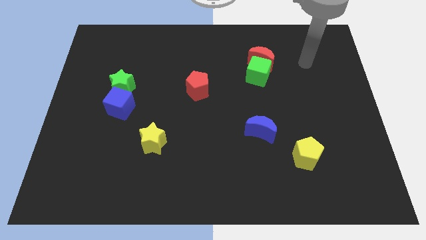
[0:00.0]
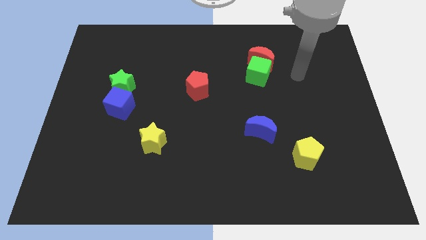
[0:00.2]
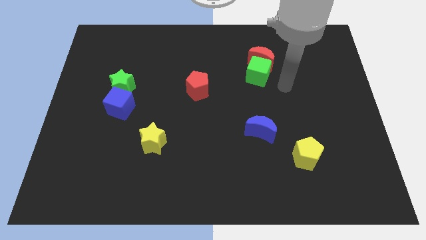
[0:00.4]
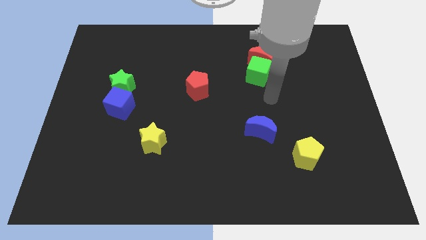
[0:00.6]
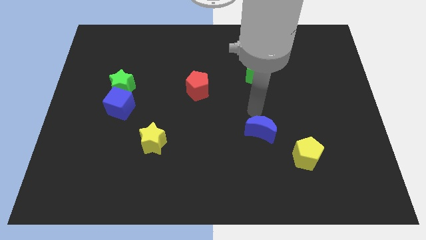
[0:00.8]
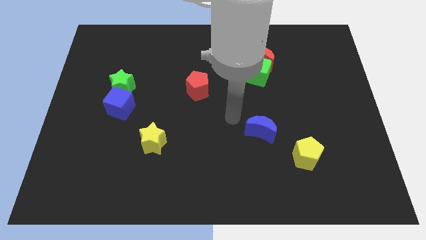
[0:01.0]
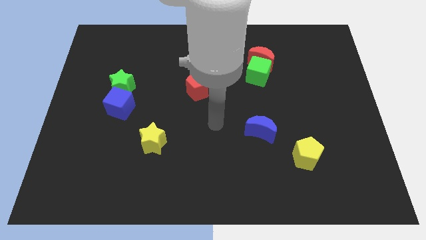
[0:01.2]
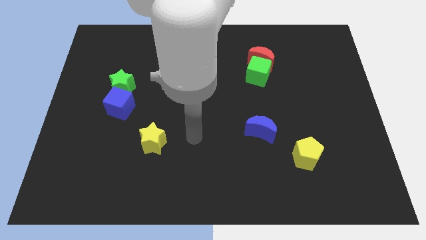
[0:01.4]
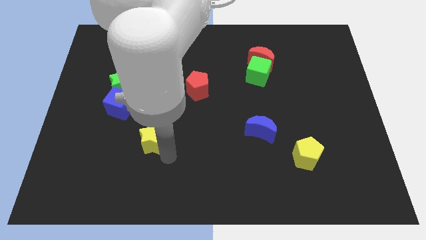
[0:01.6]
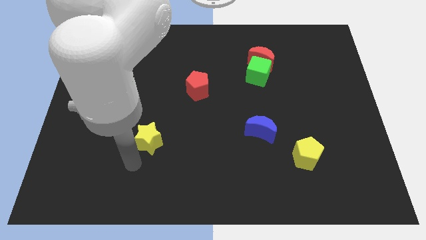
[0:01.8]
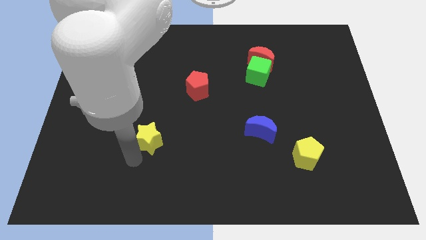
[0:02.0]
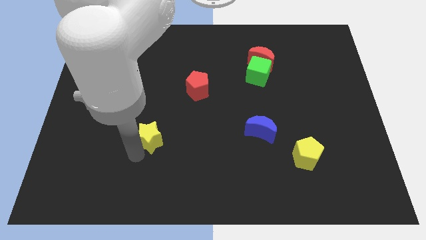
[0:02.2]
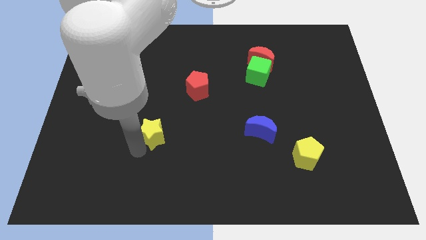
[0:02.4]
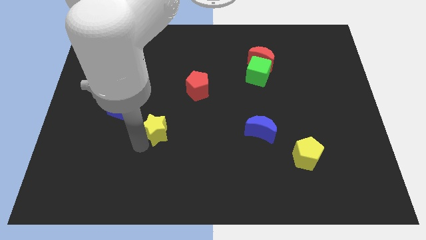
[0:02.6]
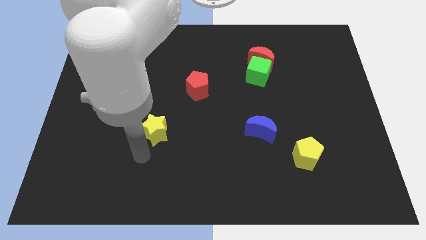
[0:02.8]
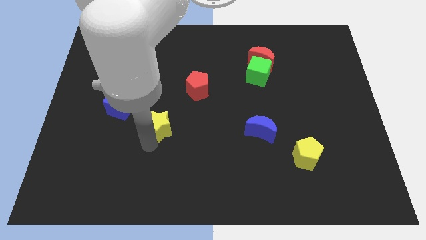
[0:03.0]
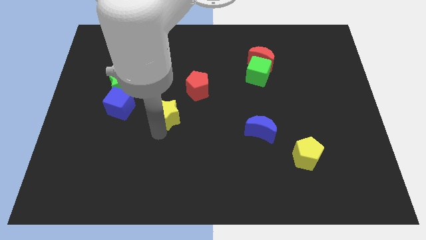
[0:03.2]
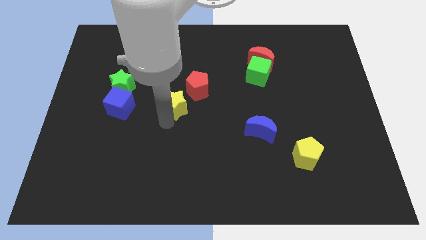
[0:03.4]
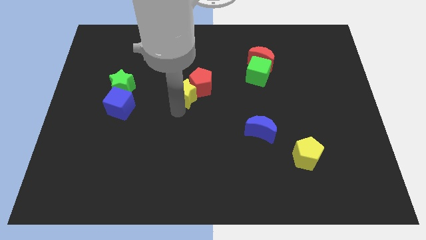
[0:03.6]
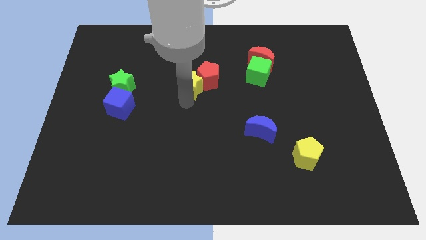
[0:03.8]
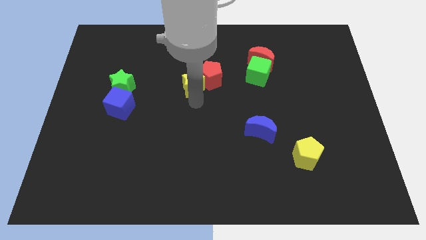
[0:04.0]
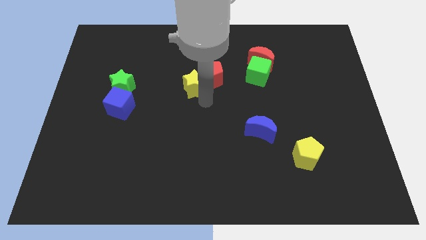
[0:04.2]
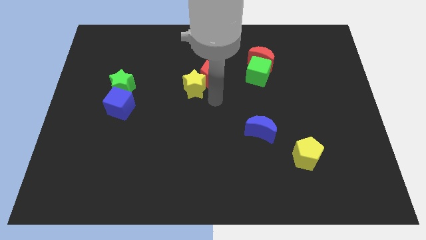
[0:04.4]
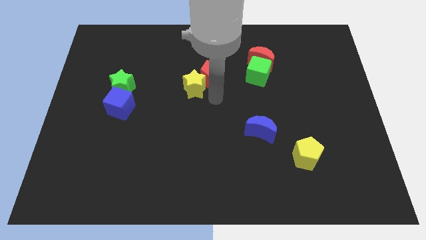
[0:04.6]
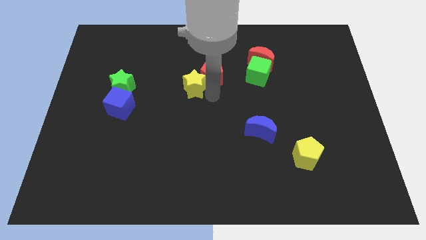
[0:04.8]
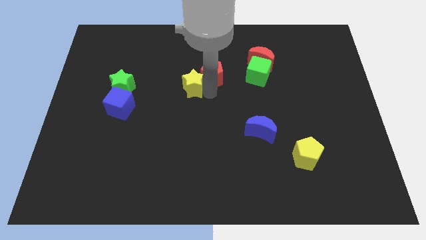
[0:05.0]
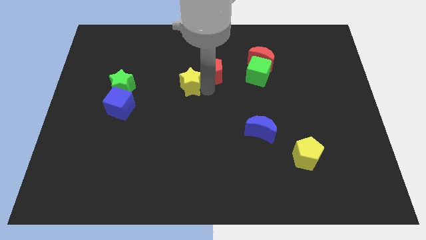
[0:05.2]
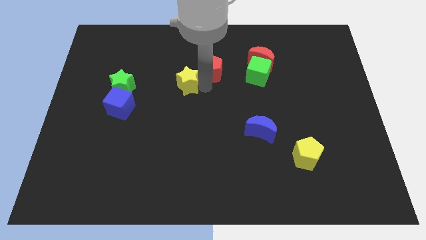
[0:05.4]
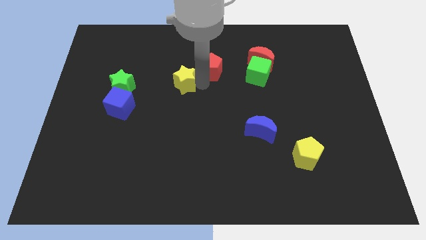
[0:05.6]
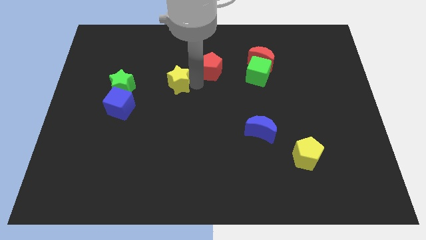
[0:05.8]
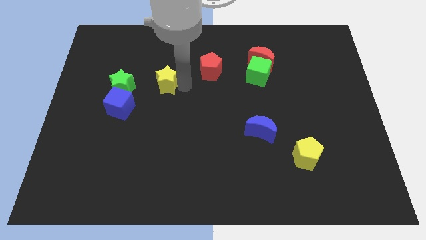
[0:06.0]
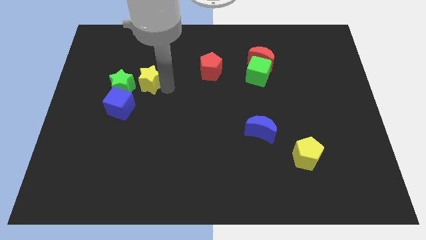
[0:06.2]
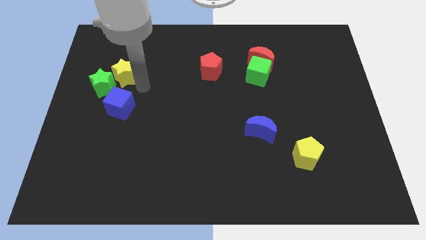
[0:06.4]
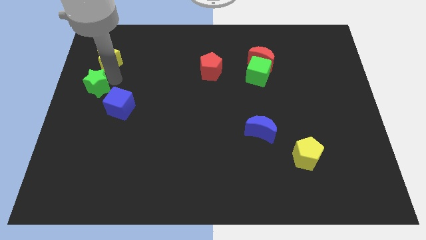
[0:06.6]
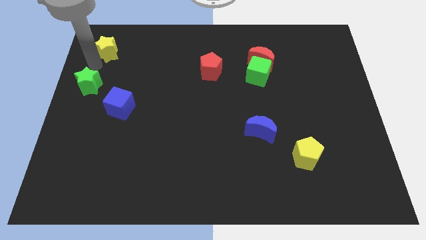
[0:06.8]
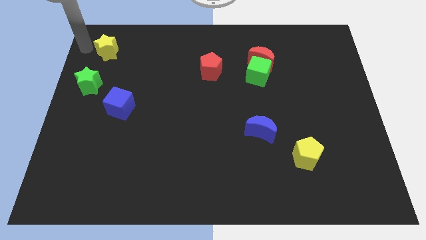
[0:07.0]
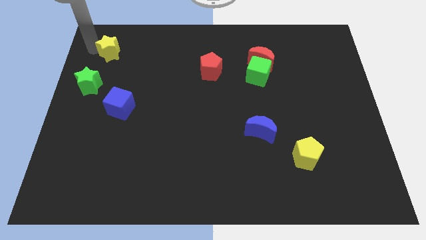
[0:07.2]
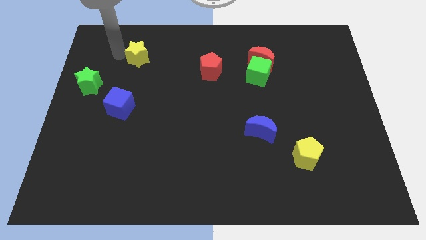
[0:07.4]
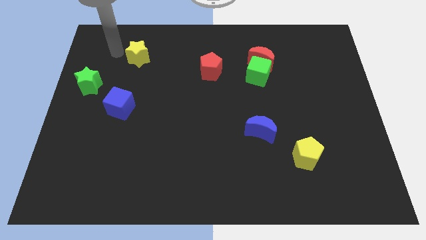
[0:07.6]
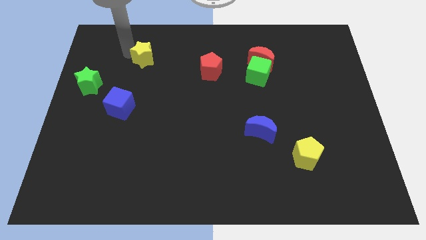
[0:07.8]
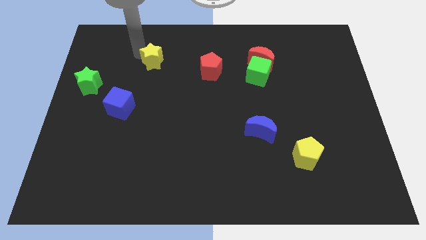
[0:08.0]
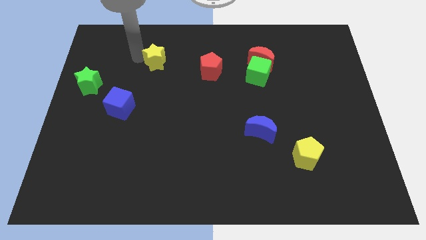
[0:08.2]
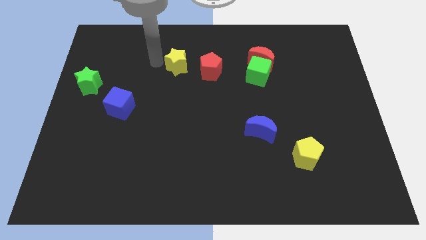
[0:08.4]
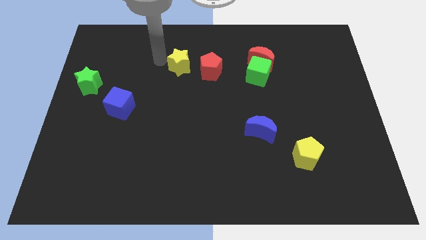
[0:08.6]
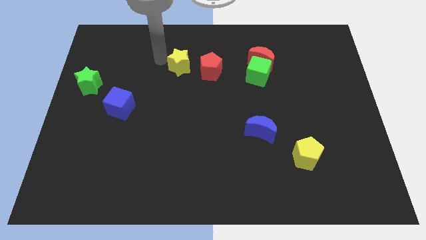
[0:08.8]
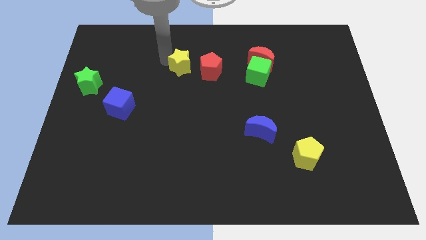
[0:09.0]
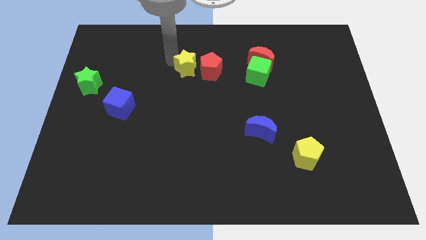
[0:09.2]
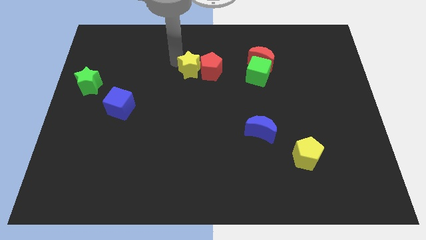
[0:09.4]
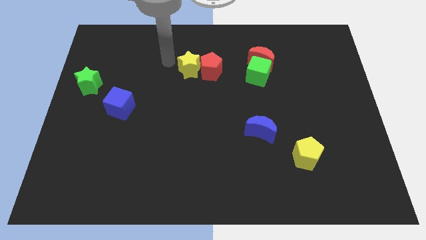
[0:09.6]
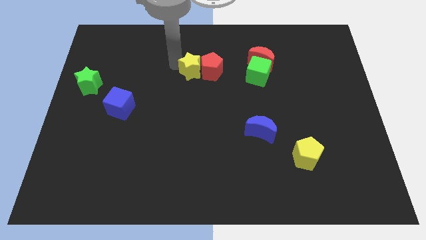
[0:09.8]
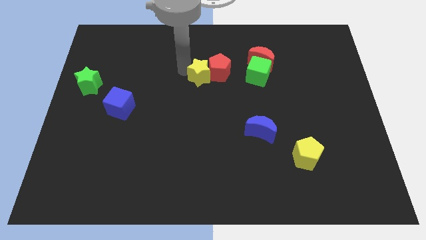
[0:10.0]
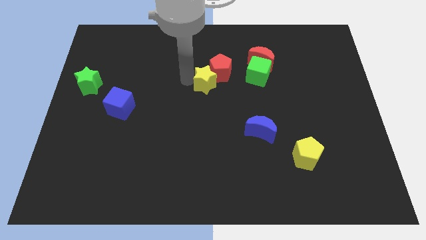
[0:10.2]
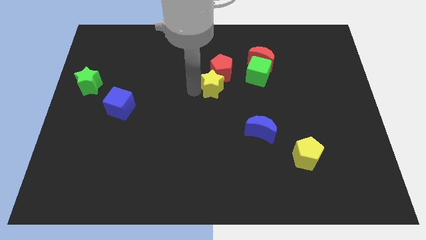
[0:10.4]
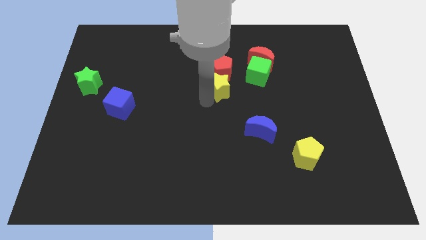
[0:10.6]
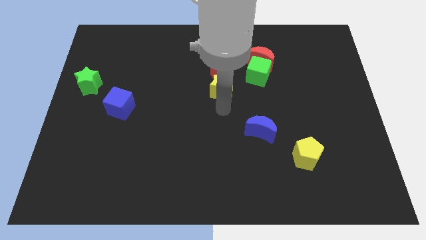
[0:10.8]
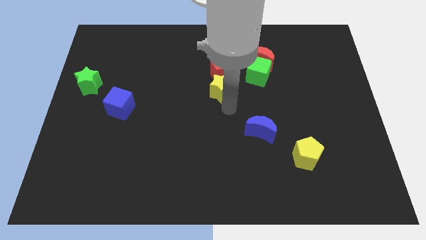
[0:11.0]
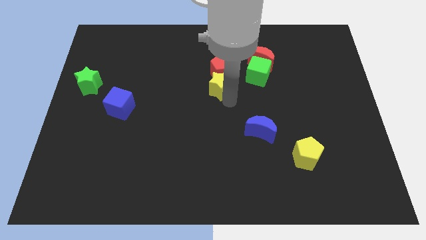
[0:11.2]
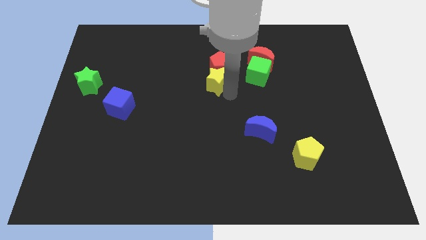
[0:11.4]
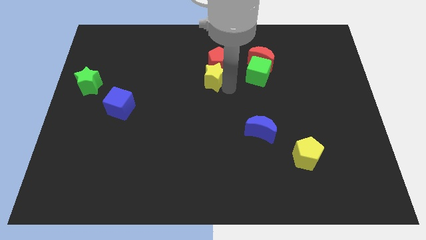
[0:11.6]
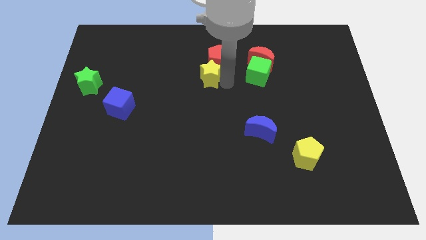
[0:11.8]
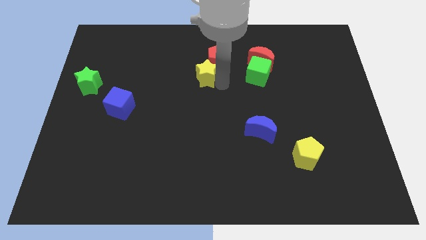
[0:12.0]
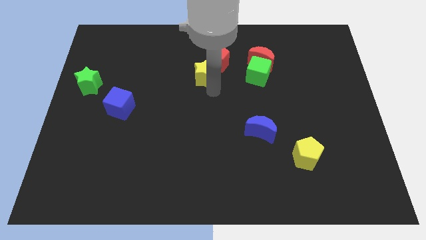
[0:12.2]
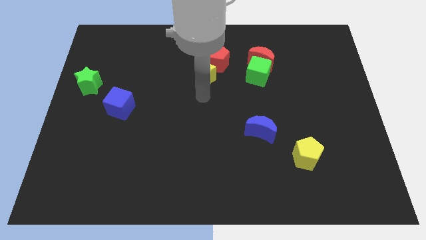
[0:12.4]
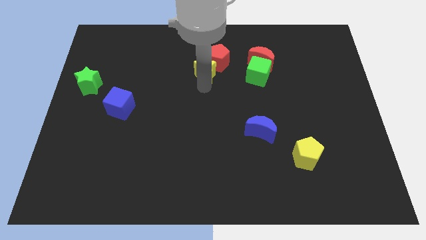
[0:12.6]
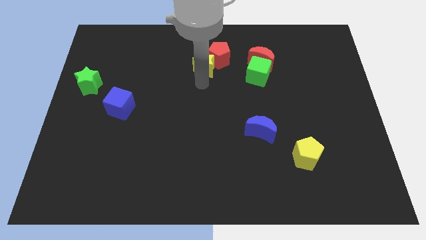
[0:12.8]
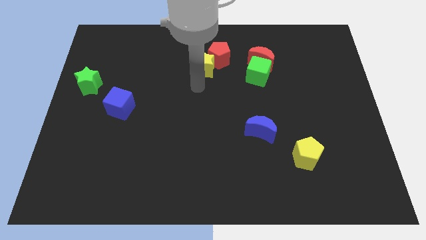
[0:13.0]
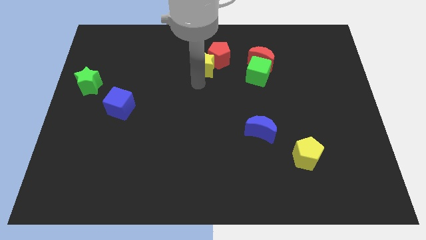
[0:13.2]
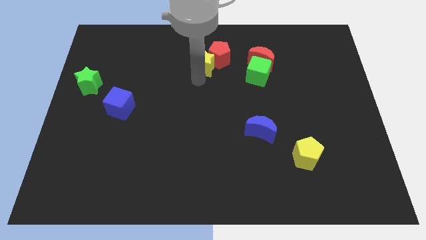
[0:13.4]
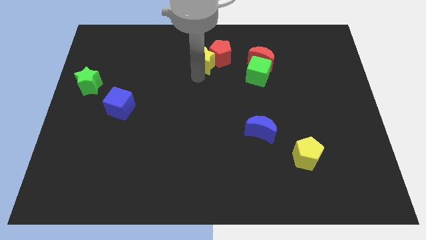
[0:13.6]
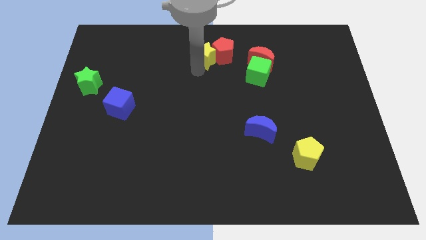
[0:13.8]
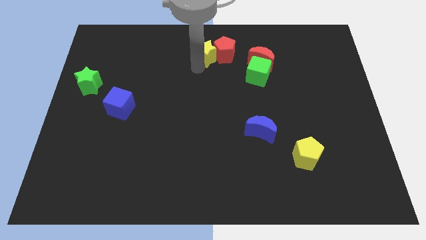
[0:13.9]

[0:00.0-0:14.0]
push the yellow star to the top side

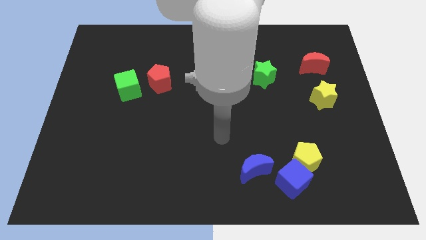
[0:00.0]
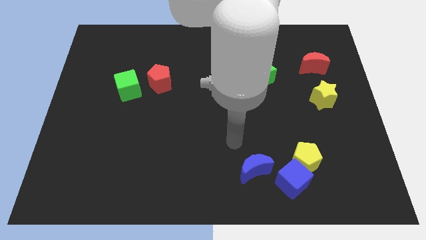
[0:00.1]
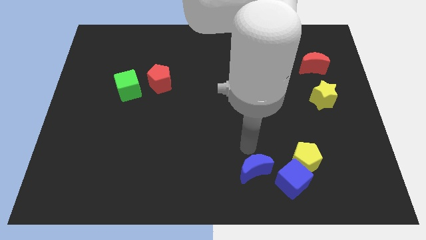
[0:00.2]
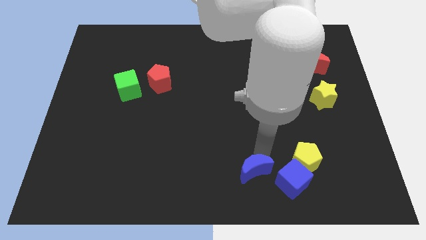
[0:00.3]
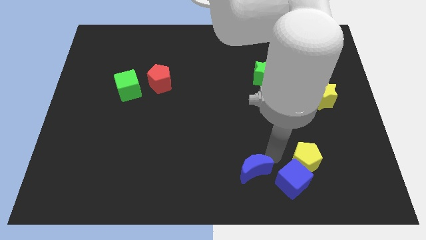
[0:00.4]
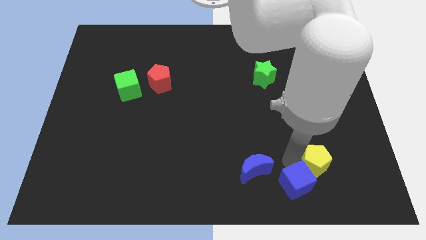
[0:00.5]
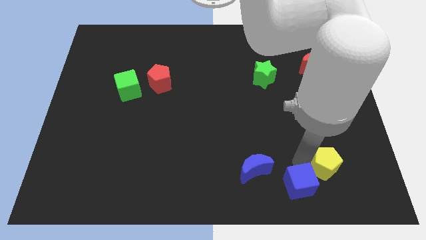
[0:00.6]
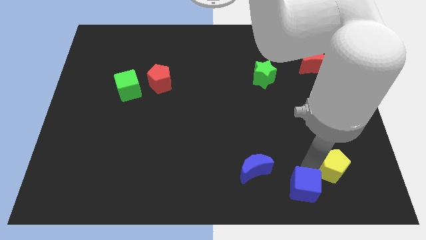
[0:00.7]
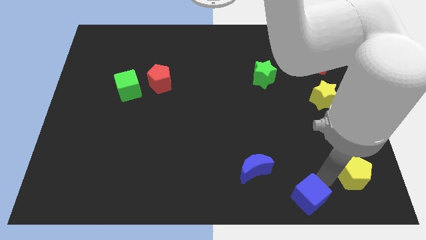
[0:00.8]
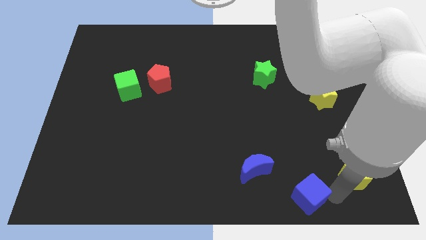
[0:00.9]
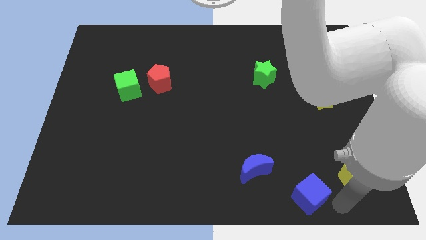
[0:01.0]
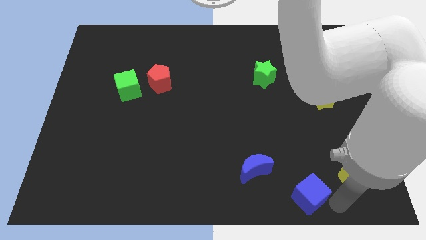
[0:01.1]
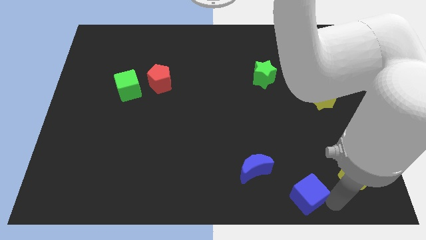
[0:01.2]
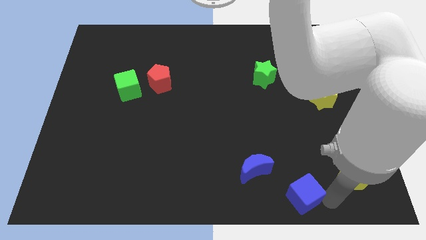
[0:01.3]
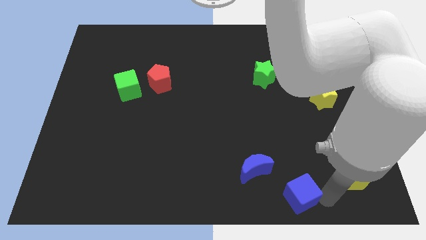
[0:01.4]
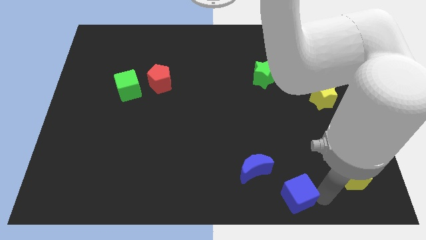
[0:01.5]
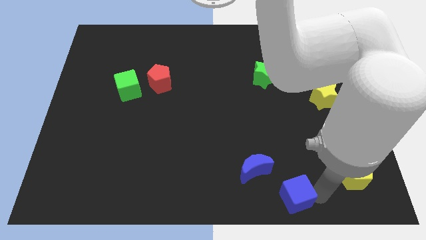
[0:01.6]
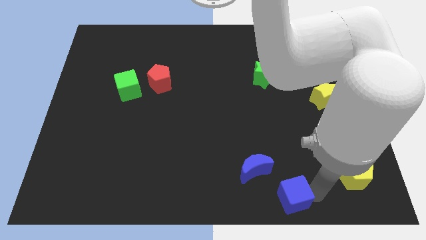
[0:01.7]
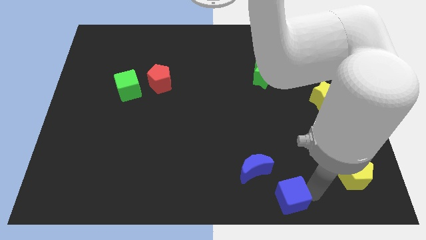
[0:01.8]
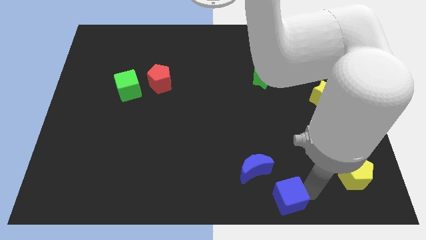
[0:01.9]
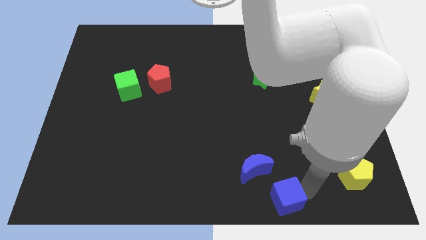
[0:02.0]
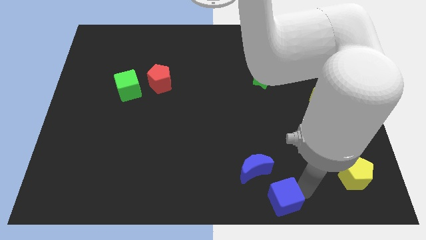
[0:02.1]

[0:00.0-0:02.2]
slide the blue cube to the bottom side
